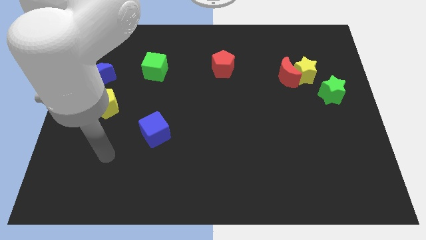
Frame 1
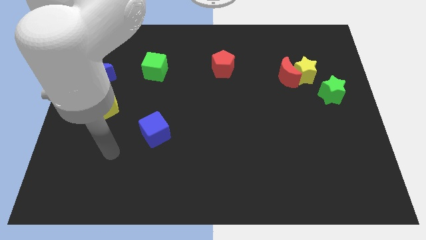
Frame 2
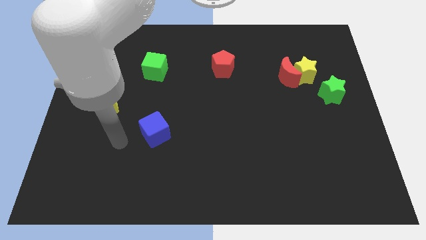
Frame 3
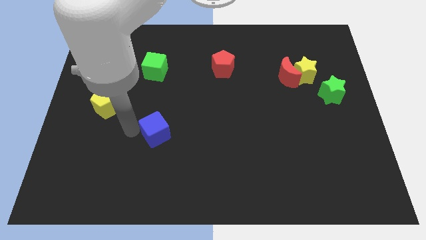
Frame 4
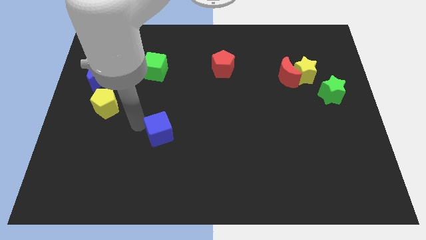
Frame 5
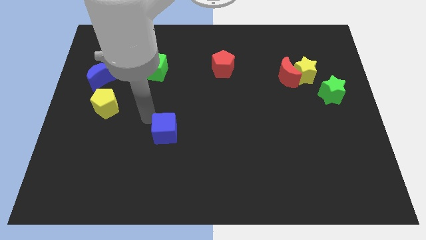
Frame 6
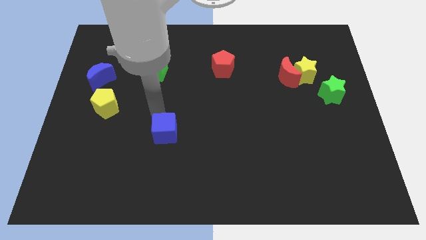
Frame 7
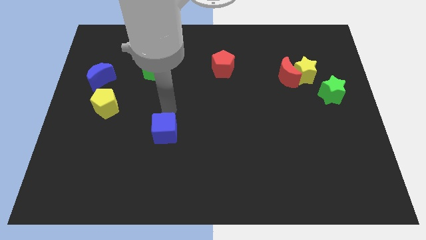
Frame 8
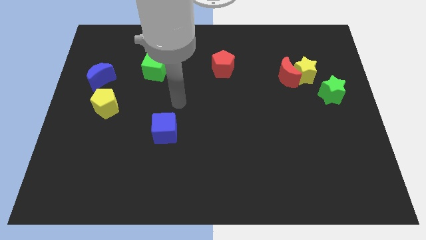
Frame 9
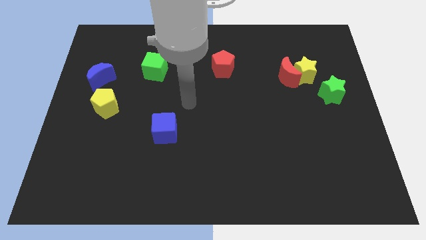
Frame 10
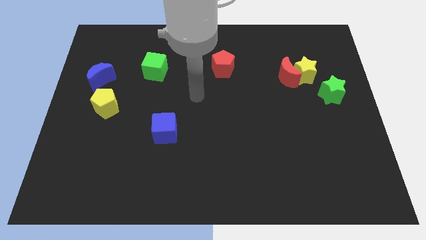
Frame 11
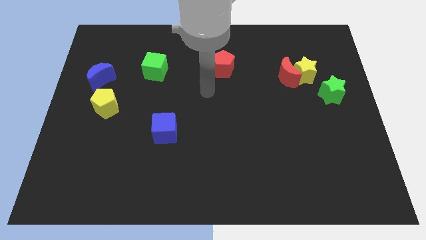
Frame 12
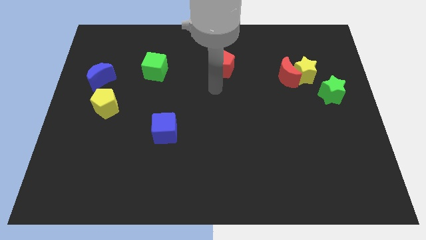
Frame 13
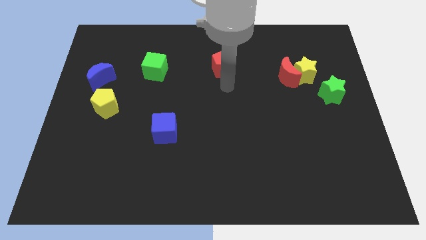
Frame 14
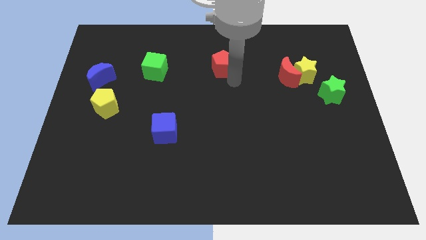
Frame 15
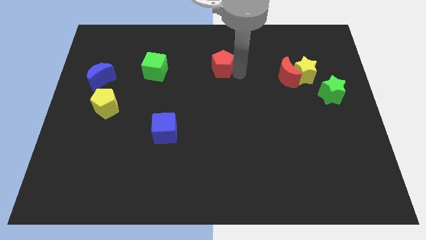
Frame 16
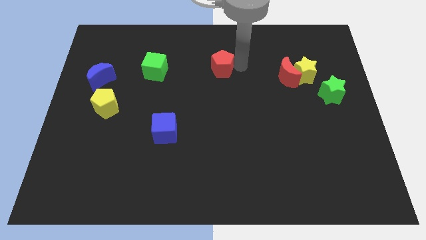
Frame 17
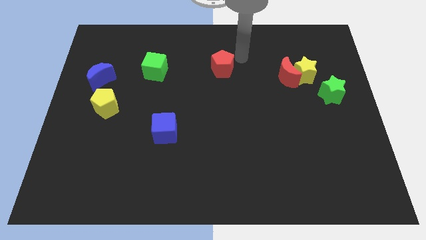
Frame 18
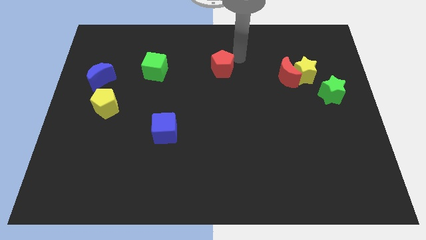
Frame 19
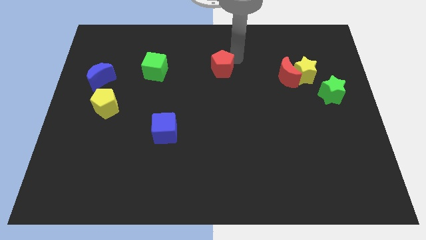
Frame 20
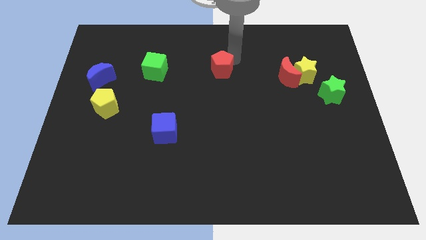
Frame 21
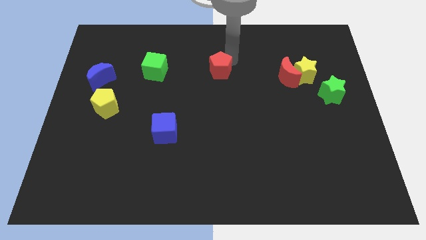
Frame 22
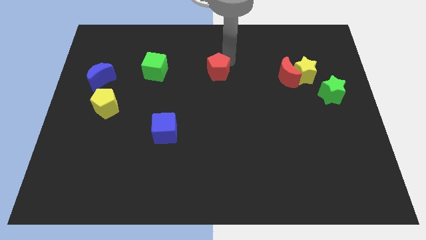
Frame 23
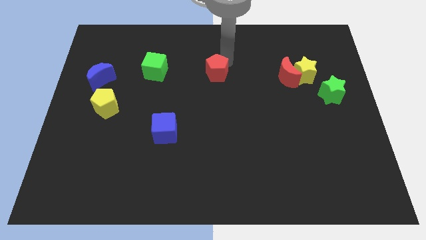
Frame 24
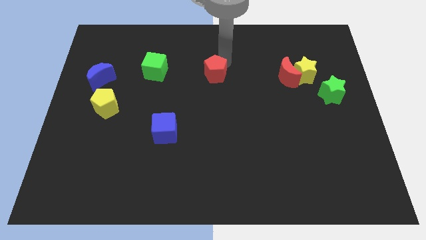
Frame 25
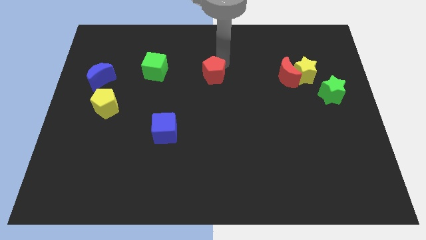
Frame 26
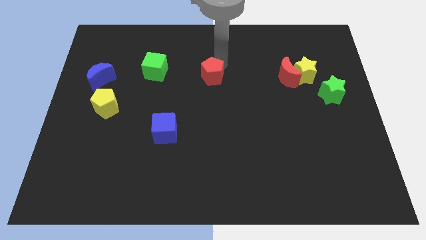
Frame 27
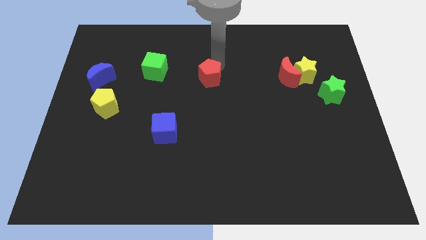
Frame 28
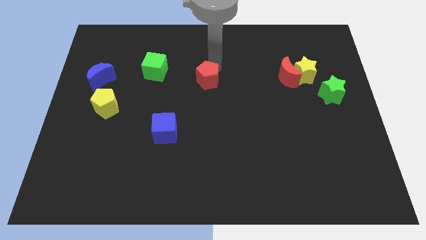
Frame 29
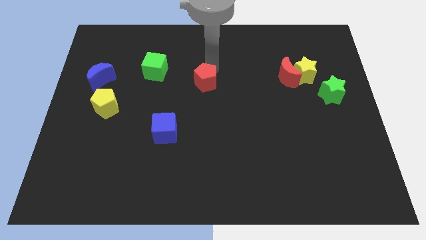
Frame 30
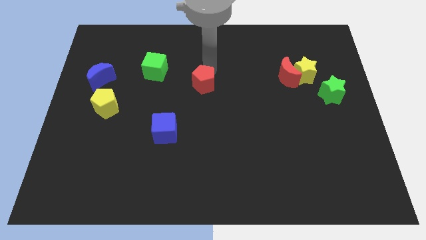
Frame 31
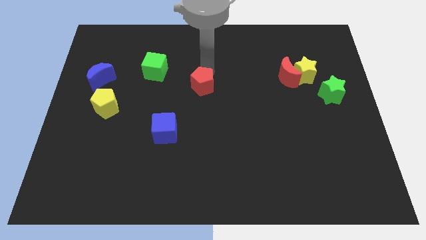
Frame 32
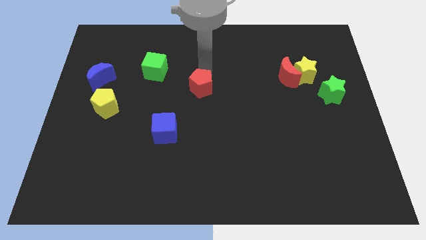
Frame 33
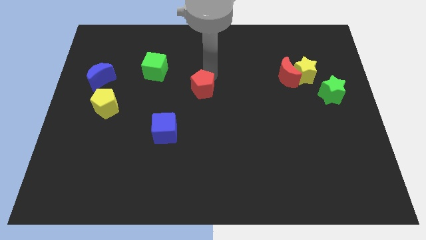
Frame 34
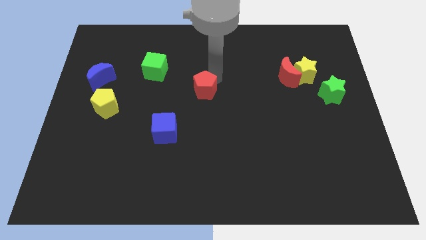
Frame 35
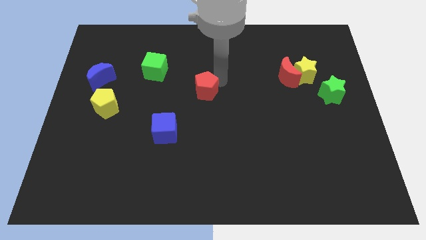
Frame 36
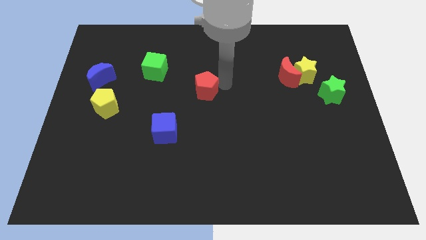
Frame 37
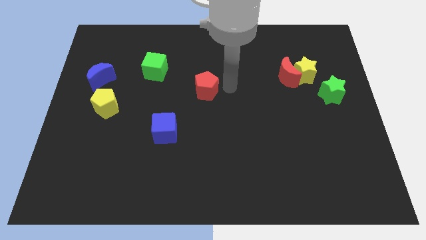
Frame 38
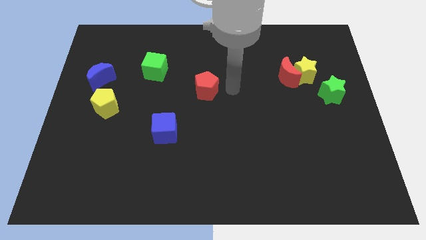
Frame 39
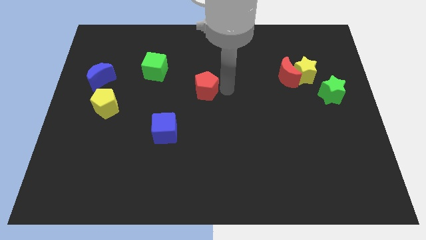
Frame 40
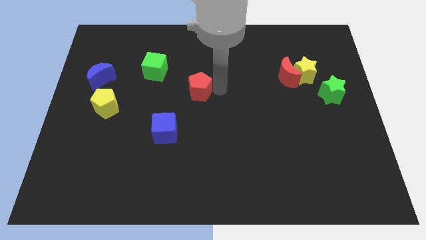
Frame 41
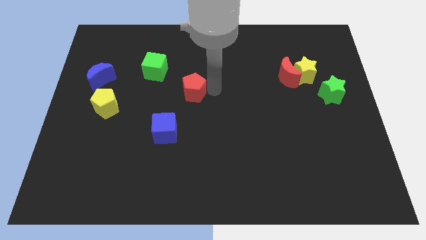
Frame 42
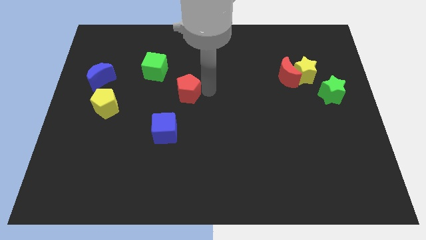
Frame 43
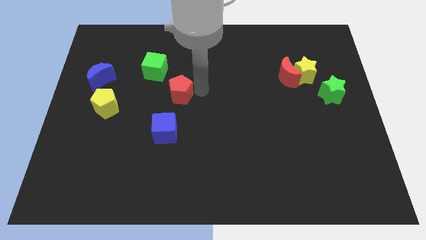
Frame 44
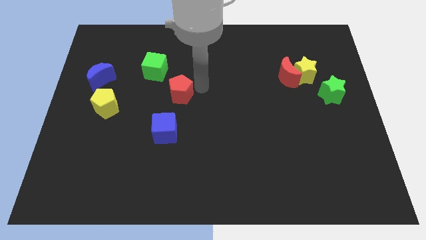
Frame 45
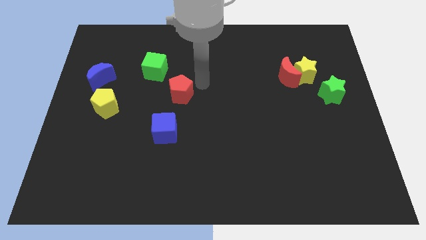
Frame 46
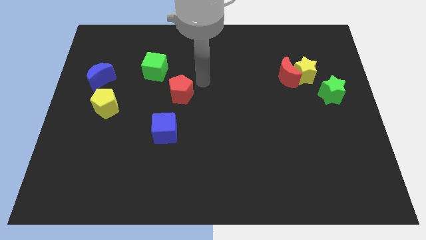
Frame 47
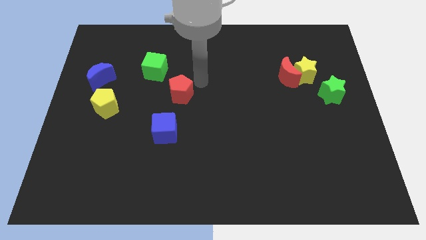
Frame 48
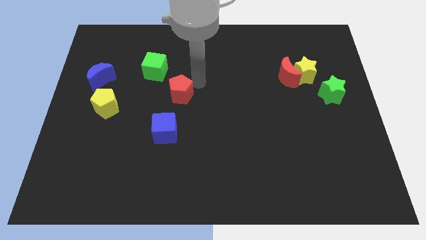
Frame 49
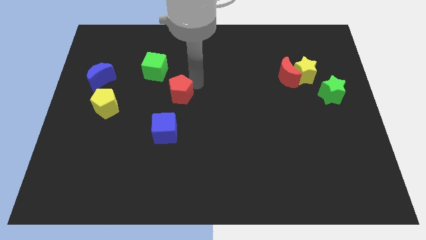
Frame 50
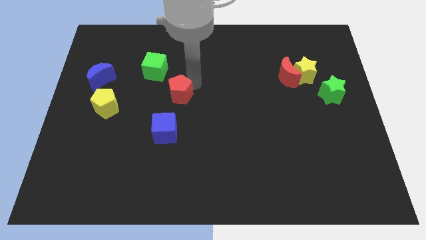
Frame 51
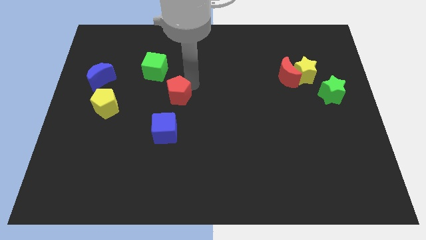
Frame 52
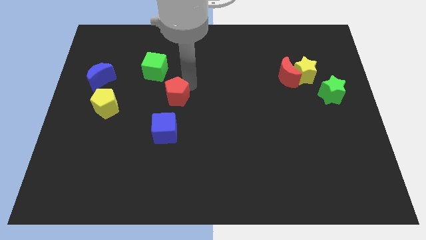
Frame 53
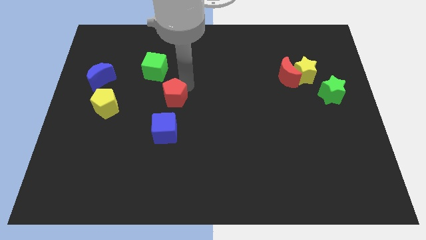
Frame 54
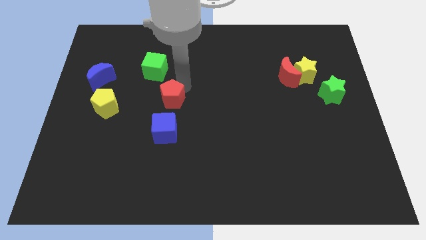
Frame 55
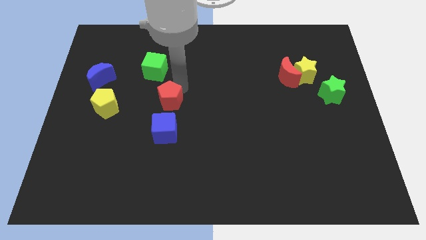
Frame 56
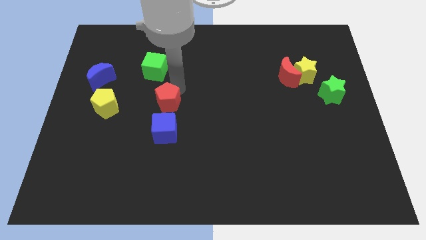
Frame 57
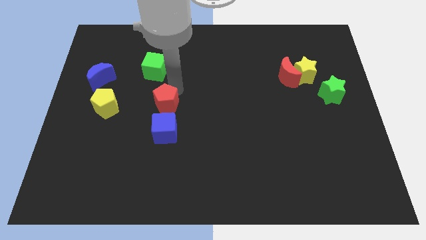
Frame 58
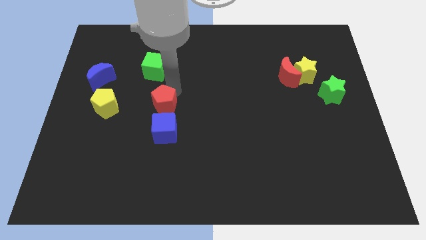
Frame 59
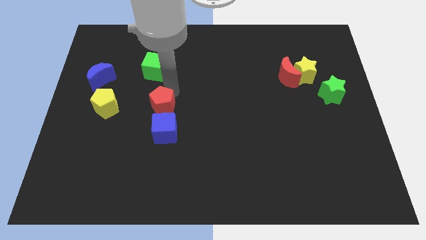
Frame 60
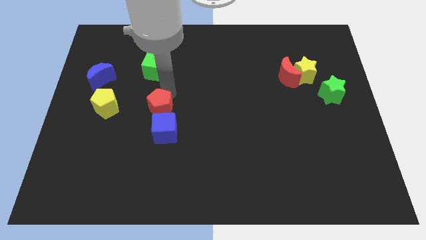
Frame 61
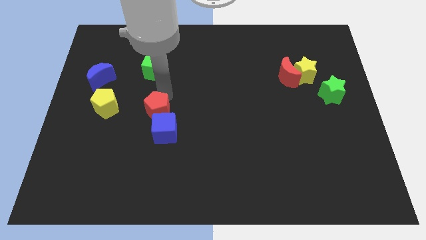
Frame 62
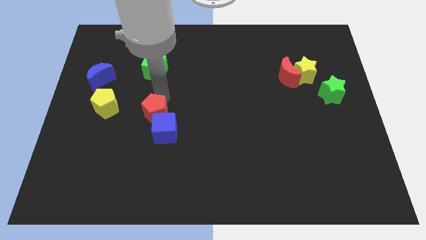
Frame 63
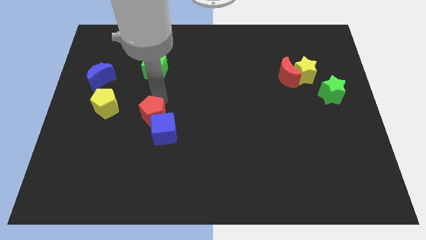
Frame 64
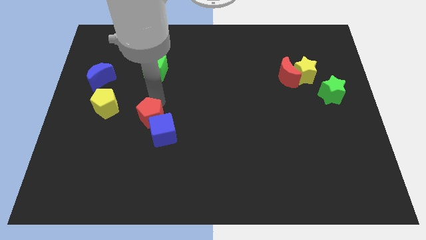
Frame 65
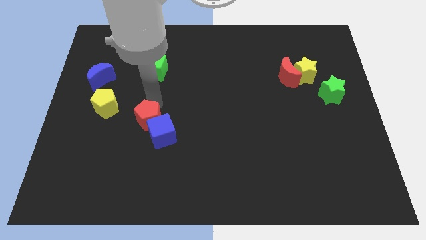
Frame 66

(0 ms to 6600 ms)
slide the red pentagon to the bottom right side of the yellow pentagon

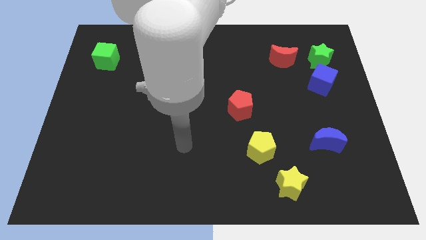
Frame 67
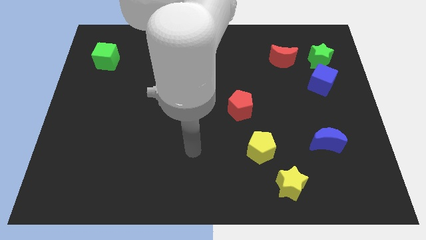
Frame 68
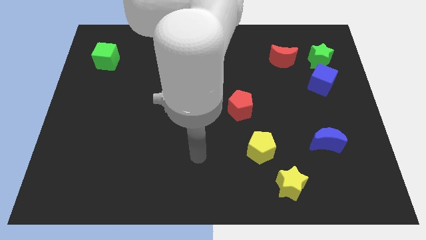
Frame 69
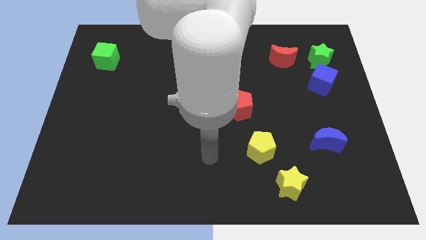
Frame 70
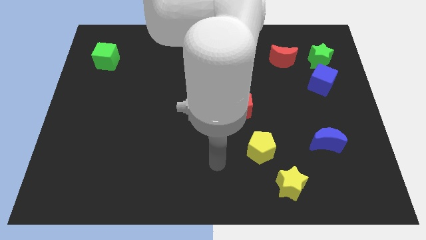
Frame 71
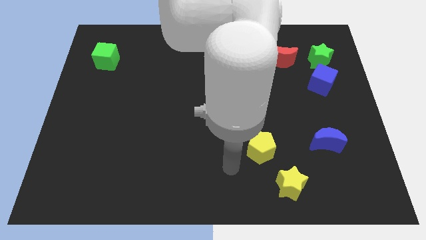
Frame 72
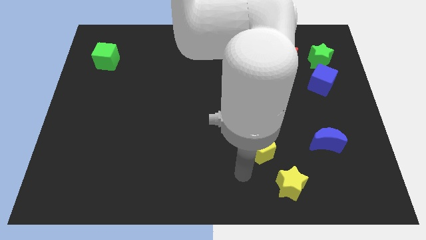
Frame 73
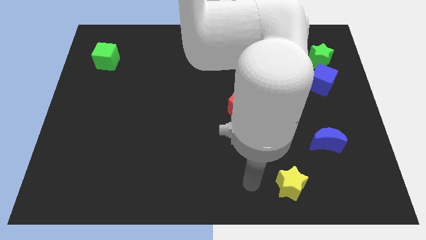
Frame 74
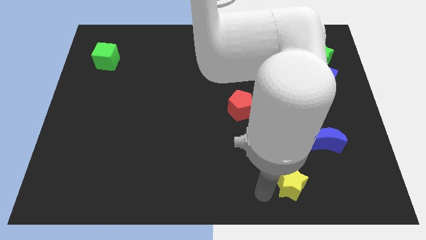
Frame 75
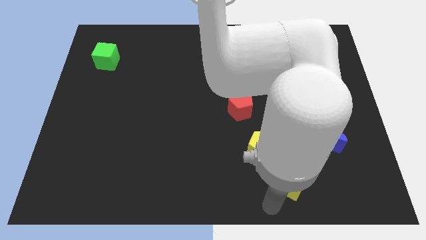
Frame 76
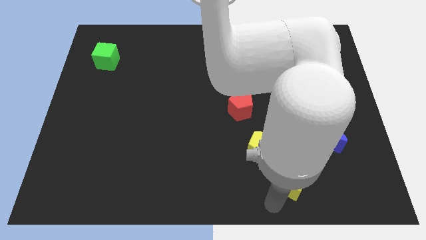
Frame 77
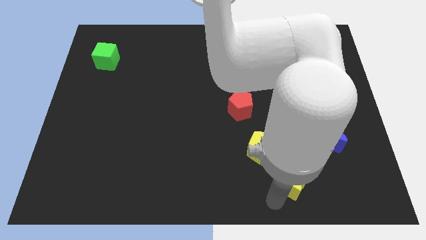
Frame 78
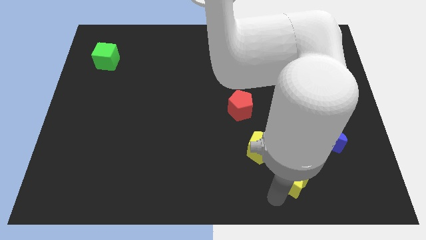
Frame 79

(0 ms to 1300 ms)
move the yellow star diagonally down and to the left of the blue moon
